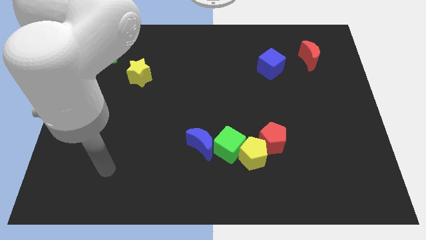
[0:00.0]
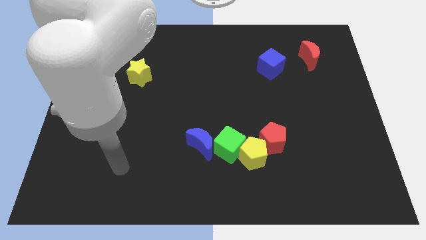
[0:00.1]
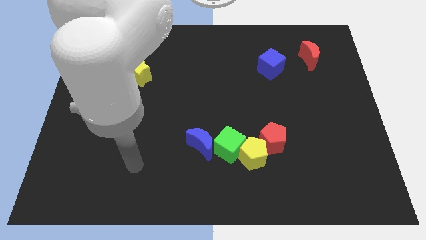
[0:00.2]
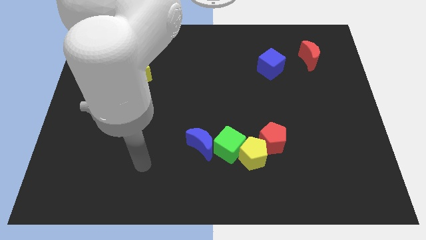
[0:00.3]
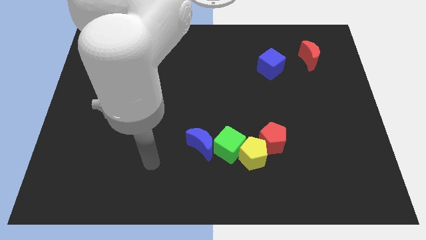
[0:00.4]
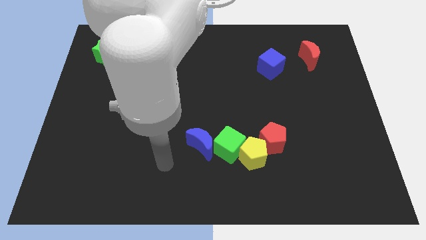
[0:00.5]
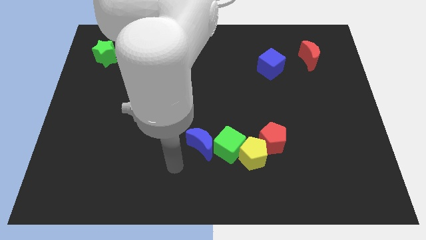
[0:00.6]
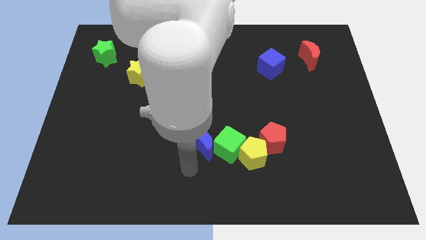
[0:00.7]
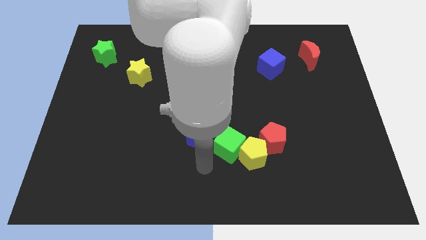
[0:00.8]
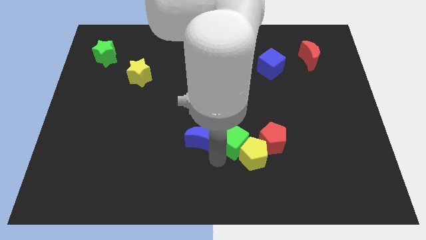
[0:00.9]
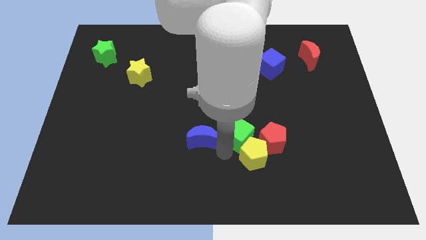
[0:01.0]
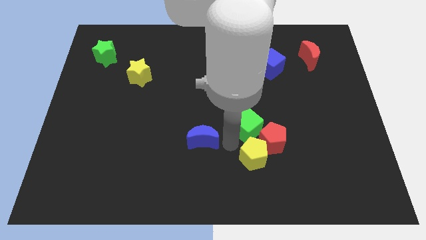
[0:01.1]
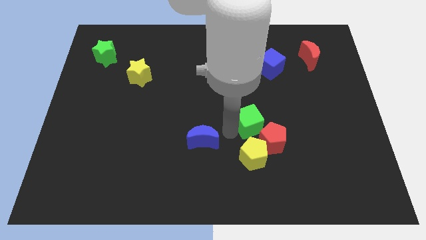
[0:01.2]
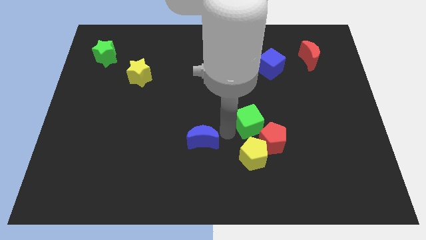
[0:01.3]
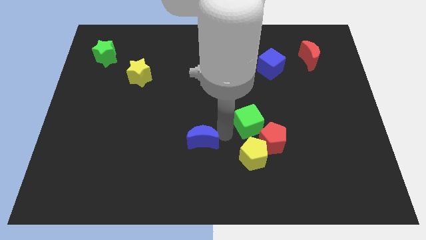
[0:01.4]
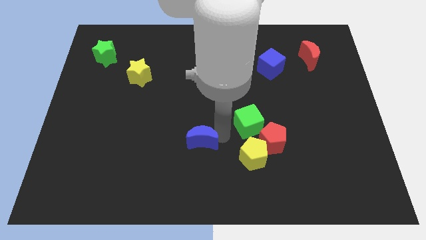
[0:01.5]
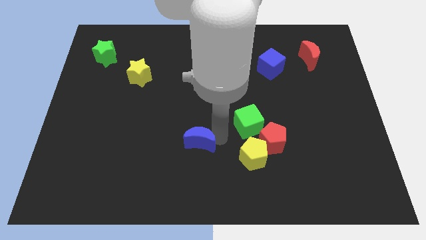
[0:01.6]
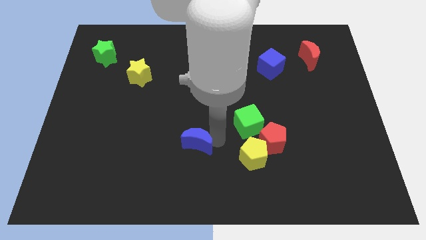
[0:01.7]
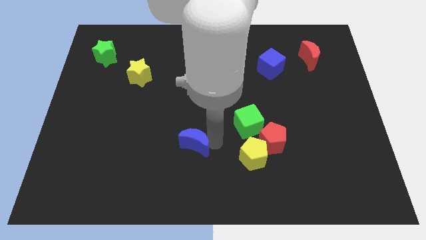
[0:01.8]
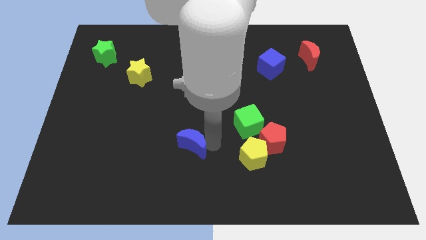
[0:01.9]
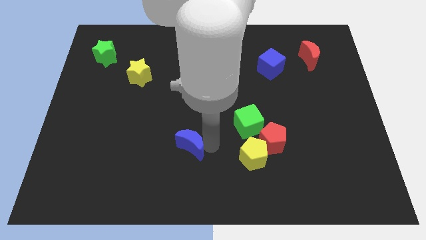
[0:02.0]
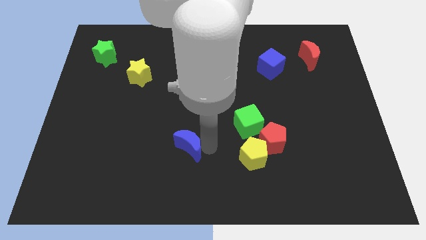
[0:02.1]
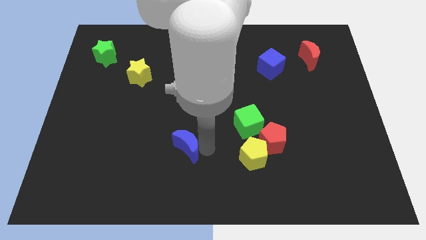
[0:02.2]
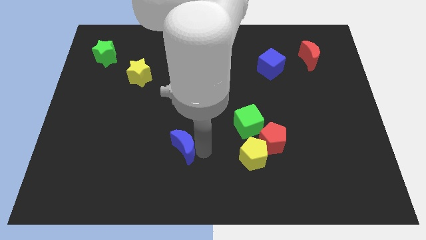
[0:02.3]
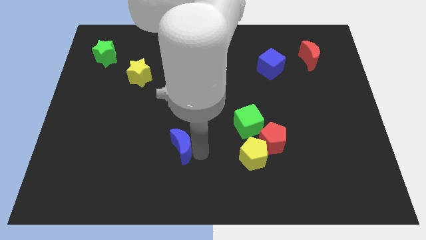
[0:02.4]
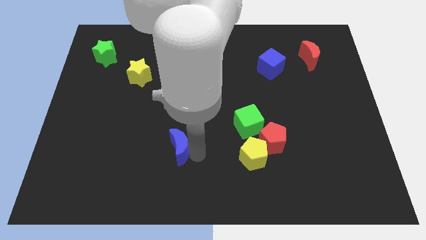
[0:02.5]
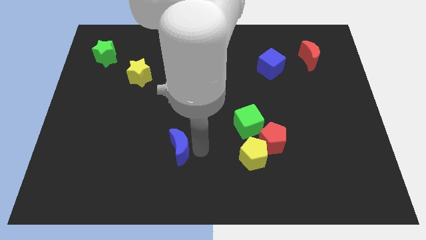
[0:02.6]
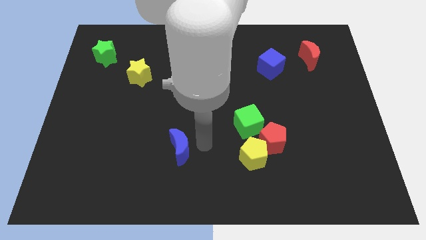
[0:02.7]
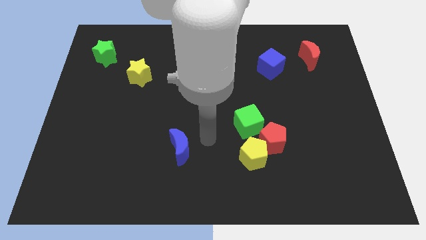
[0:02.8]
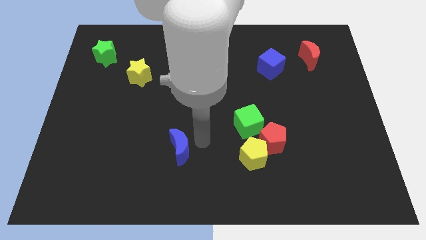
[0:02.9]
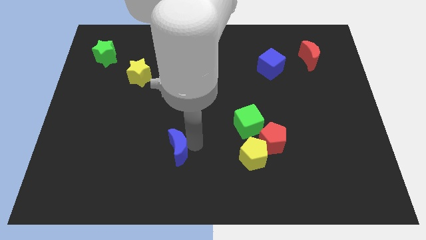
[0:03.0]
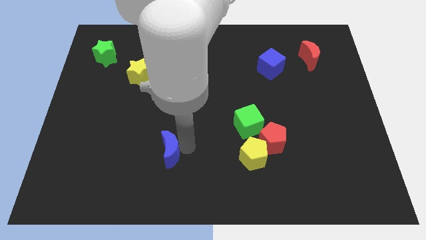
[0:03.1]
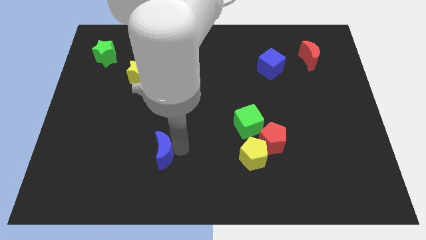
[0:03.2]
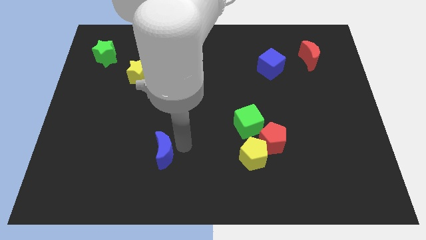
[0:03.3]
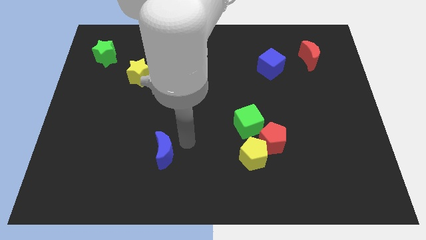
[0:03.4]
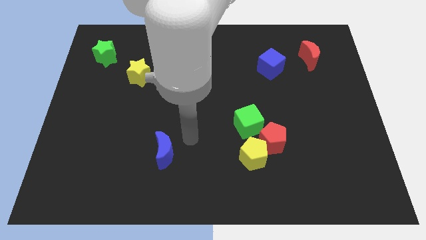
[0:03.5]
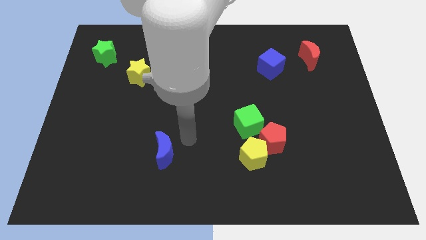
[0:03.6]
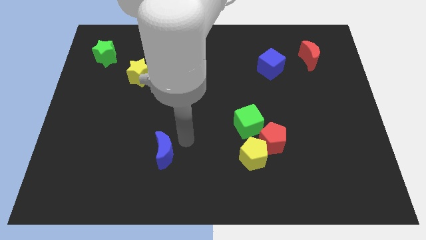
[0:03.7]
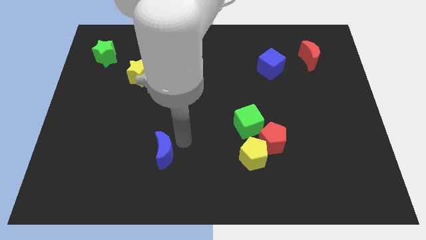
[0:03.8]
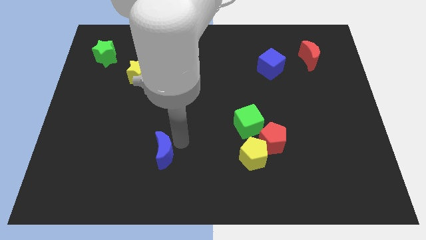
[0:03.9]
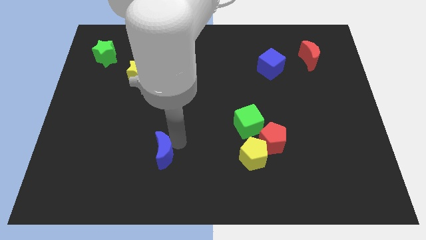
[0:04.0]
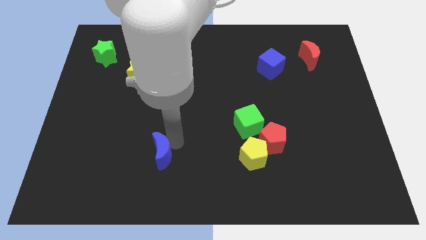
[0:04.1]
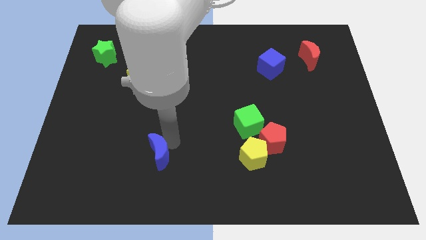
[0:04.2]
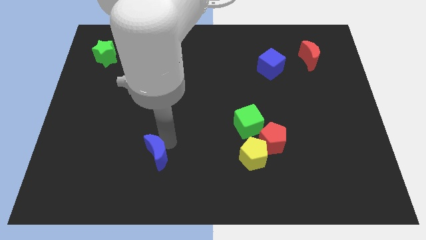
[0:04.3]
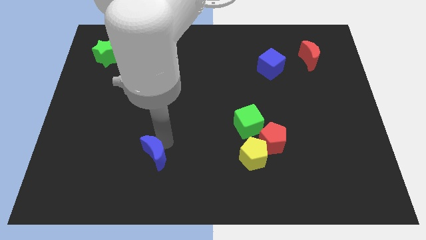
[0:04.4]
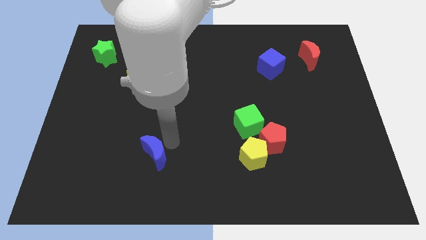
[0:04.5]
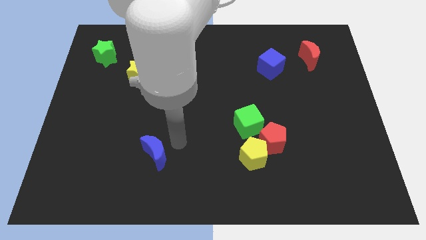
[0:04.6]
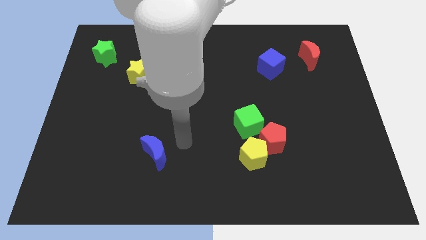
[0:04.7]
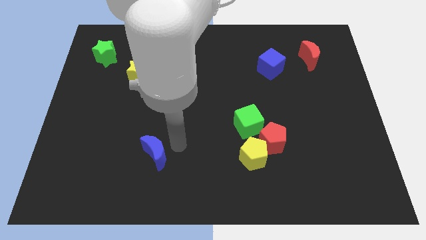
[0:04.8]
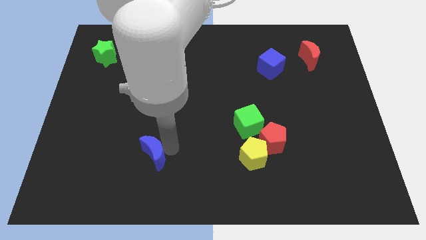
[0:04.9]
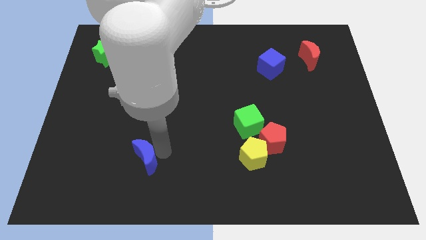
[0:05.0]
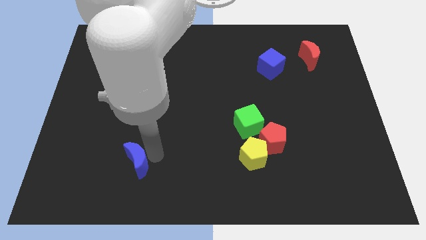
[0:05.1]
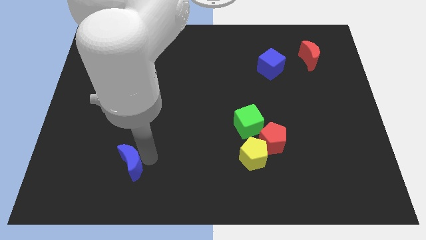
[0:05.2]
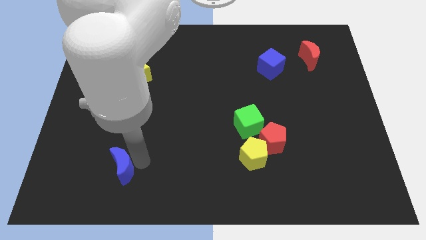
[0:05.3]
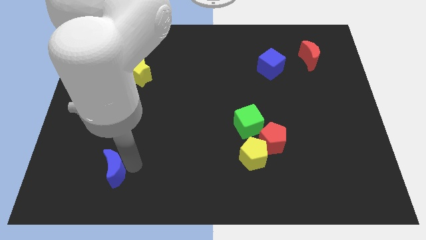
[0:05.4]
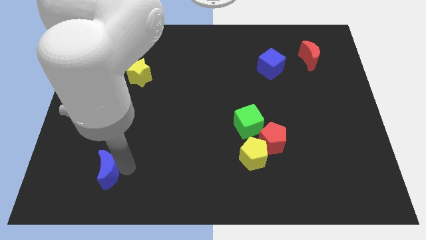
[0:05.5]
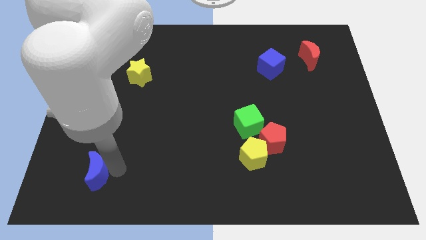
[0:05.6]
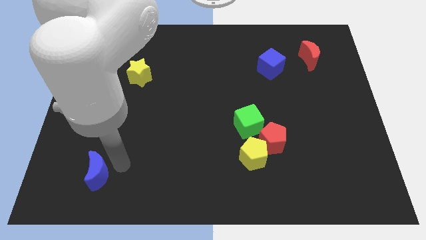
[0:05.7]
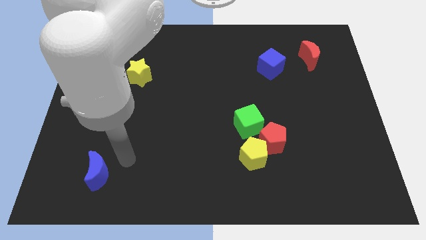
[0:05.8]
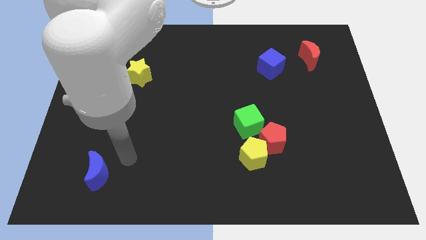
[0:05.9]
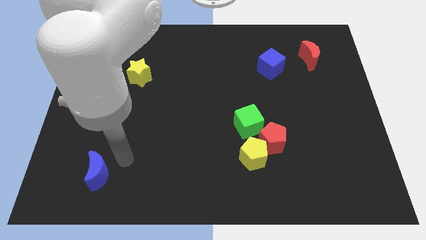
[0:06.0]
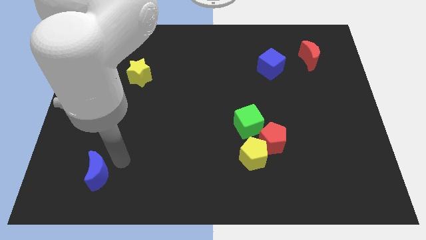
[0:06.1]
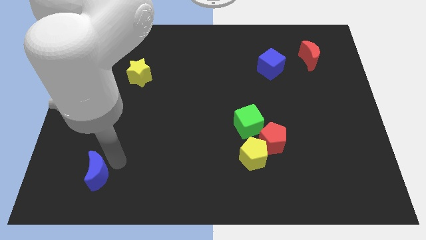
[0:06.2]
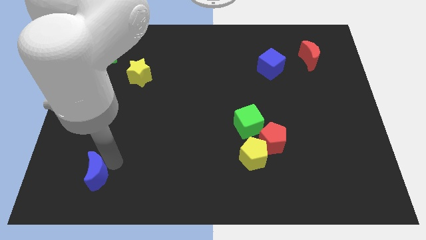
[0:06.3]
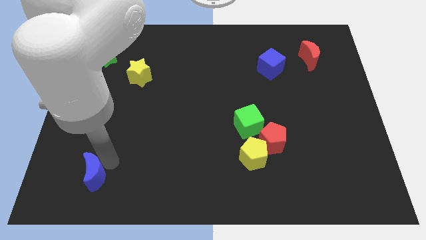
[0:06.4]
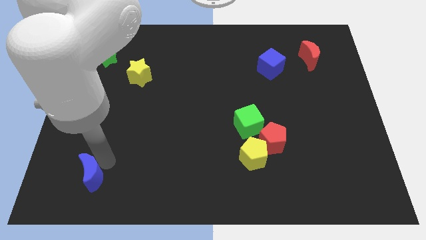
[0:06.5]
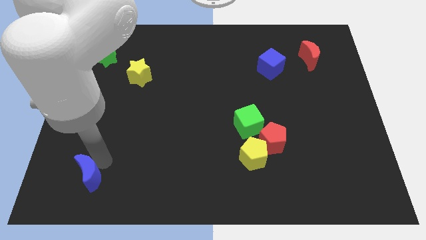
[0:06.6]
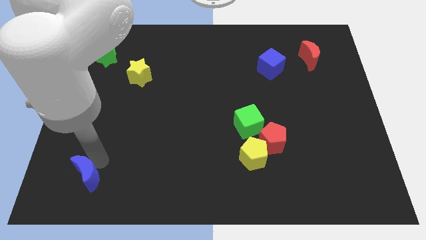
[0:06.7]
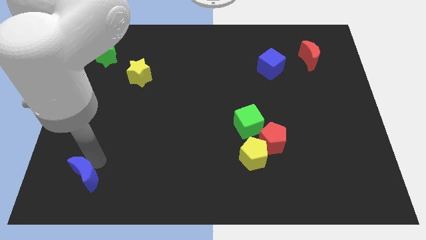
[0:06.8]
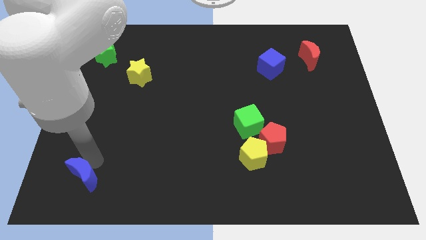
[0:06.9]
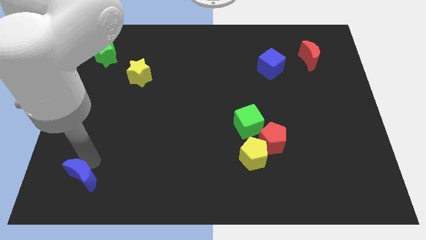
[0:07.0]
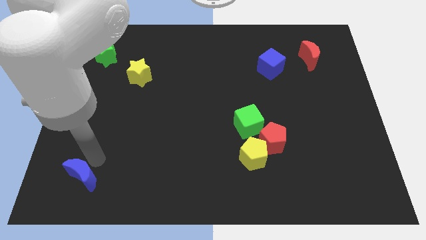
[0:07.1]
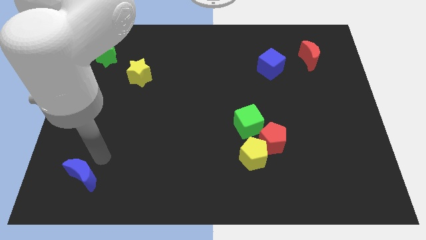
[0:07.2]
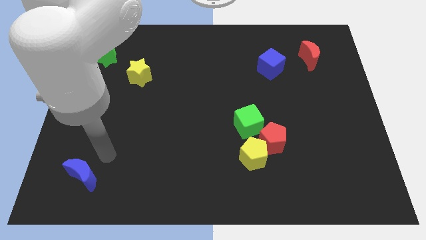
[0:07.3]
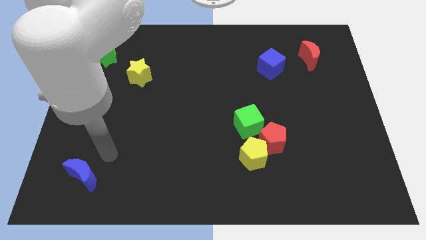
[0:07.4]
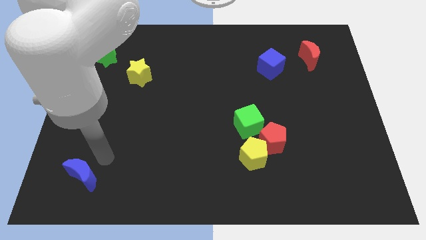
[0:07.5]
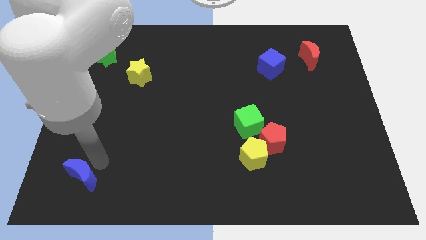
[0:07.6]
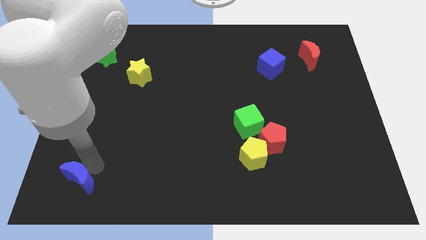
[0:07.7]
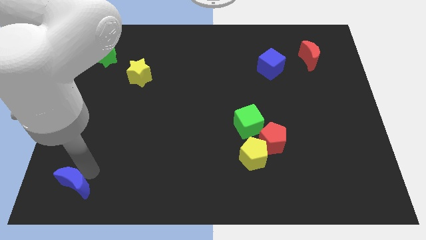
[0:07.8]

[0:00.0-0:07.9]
put the blue moon to the bottom left corner
